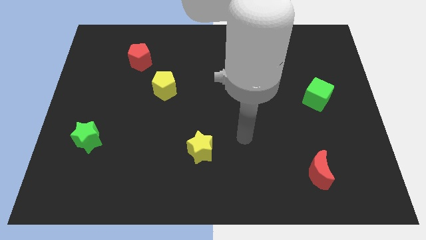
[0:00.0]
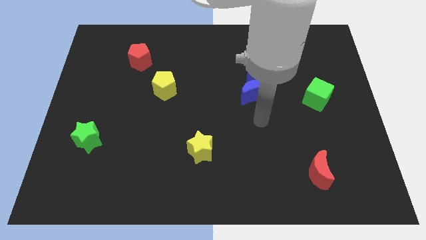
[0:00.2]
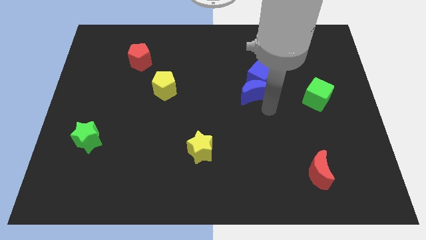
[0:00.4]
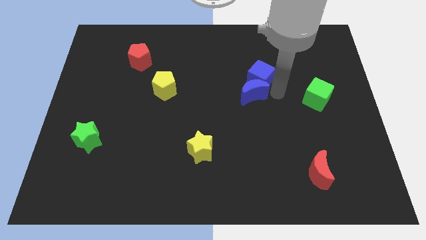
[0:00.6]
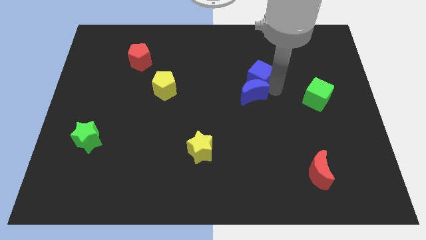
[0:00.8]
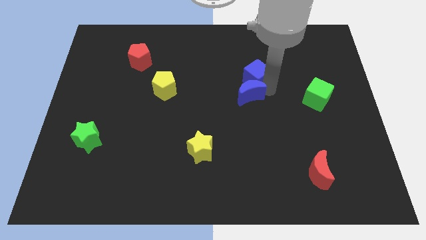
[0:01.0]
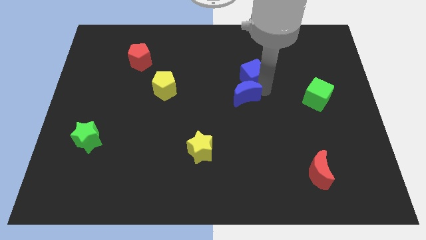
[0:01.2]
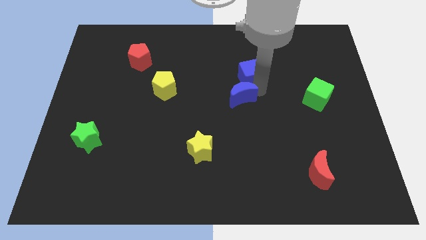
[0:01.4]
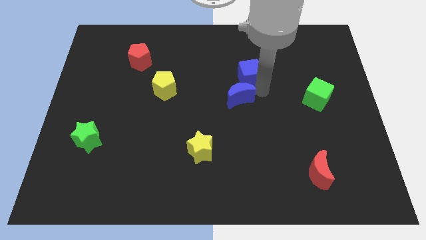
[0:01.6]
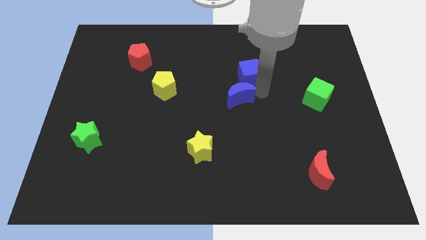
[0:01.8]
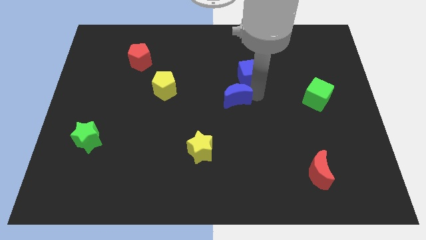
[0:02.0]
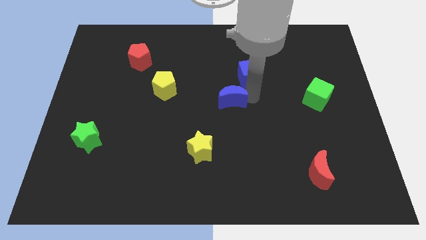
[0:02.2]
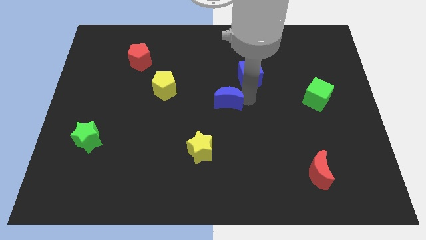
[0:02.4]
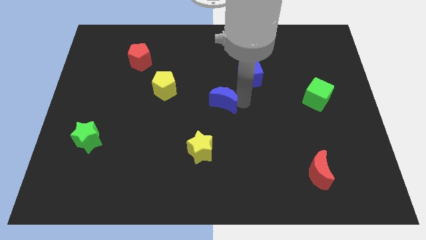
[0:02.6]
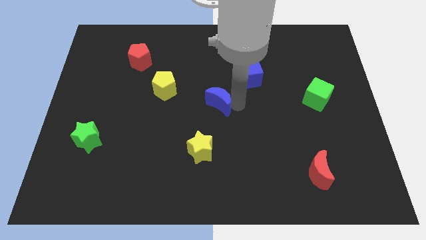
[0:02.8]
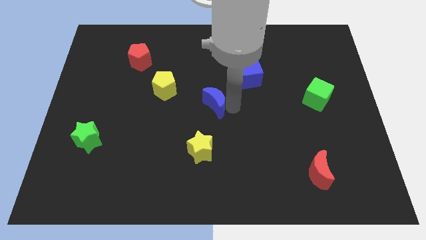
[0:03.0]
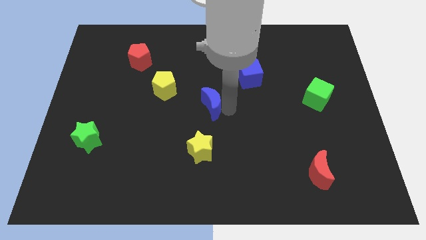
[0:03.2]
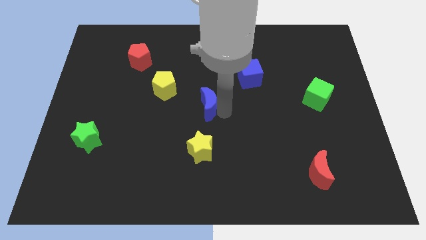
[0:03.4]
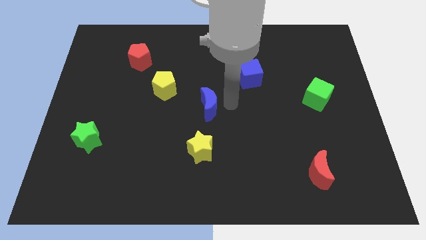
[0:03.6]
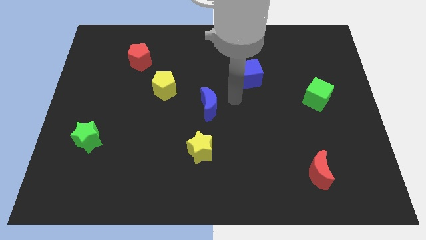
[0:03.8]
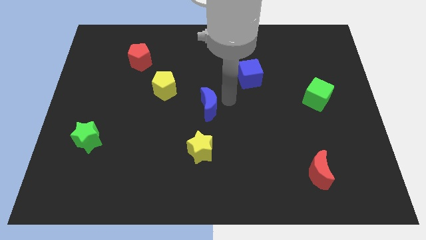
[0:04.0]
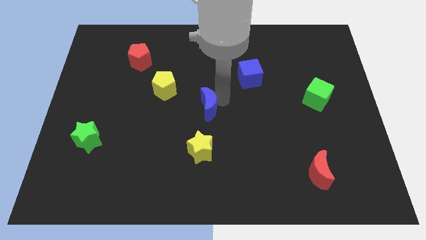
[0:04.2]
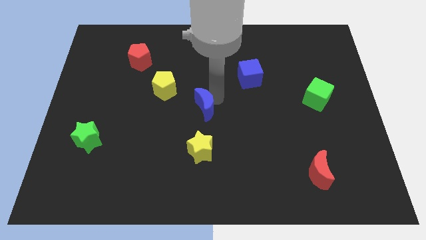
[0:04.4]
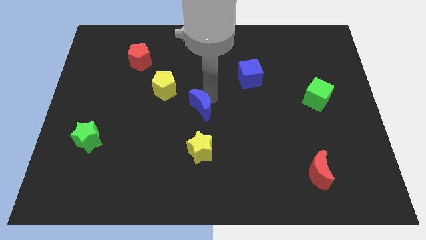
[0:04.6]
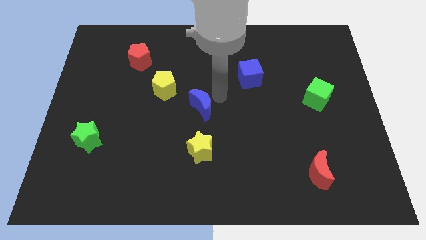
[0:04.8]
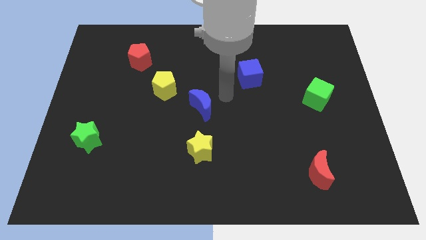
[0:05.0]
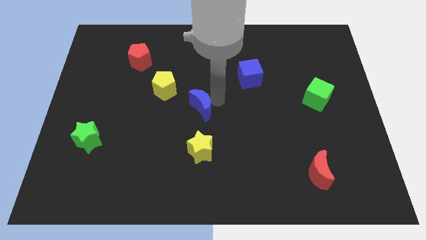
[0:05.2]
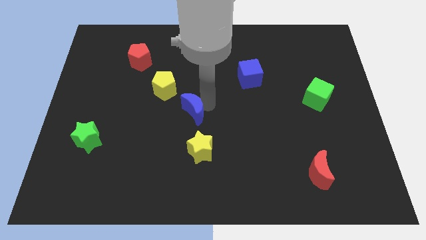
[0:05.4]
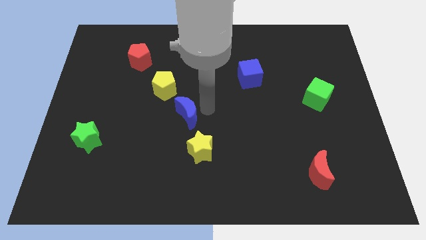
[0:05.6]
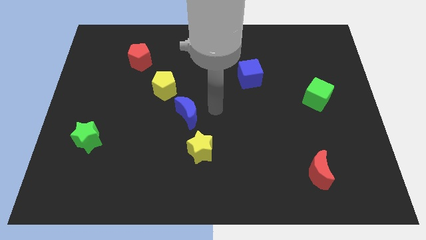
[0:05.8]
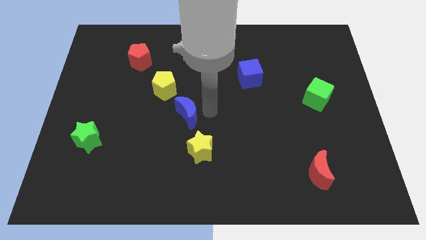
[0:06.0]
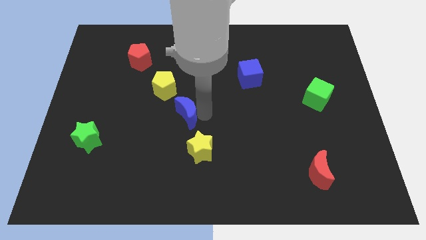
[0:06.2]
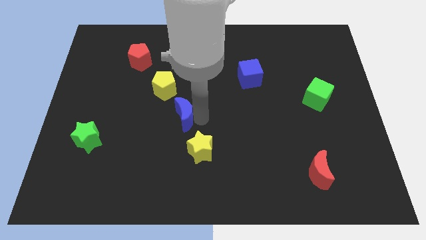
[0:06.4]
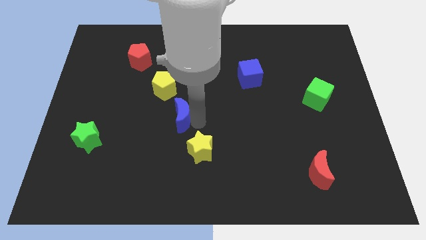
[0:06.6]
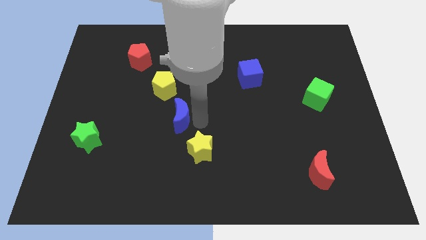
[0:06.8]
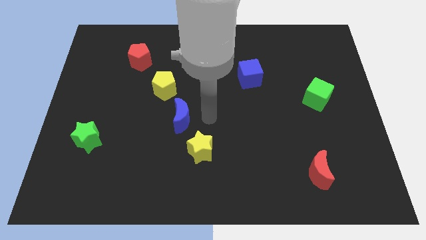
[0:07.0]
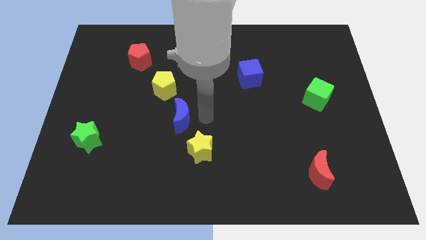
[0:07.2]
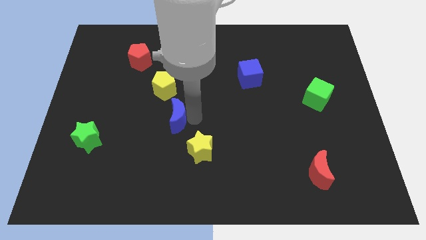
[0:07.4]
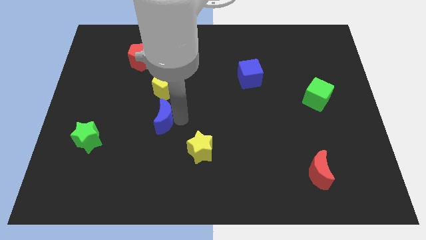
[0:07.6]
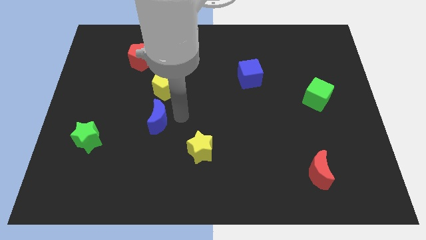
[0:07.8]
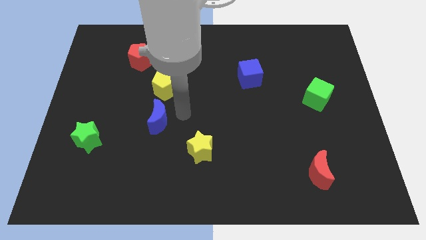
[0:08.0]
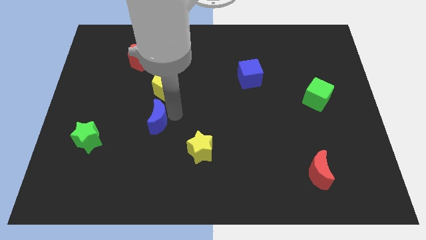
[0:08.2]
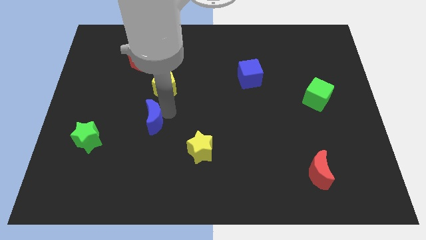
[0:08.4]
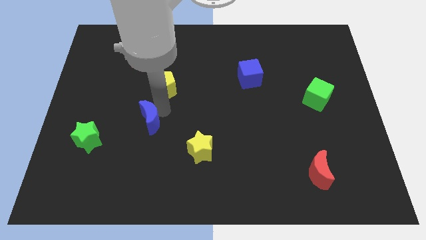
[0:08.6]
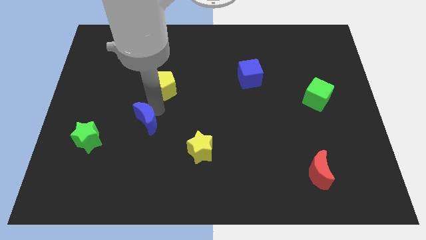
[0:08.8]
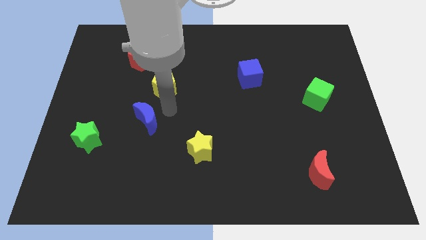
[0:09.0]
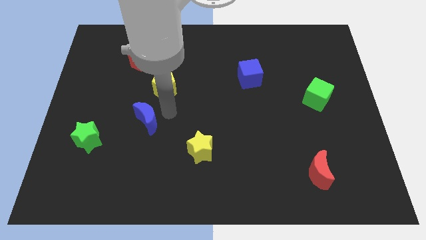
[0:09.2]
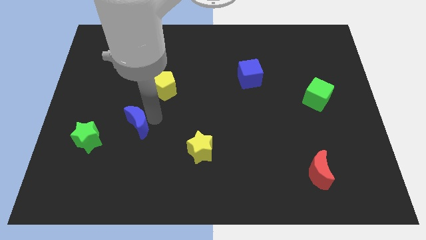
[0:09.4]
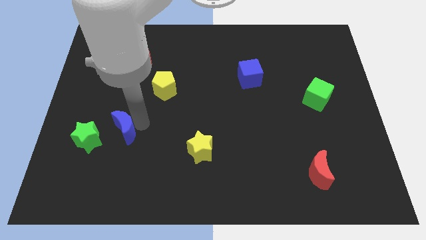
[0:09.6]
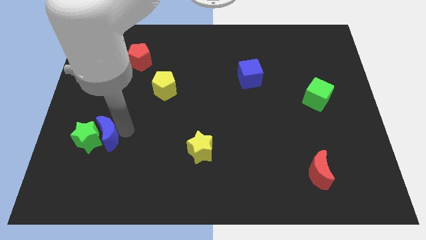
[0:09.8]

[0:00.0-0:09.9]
push the blue moon towards the green star

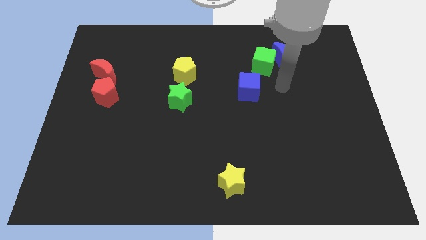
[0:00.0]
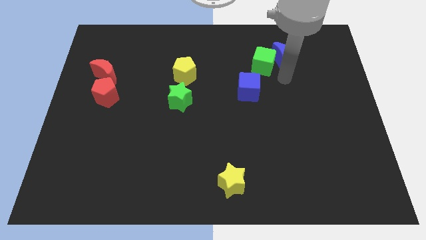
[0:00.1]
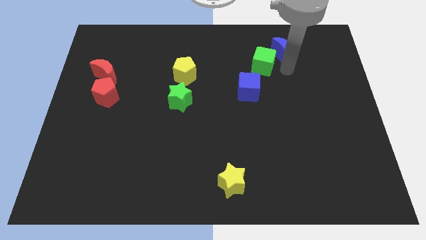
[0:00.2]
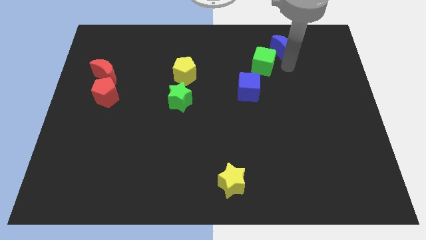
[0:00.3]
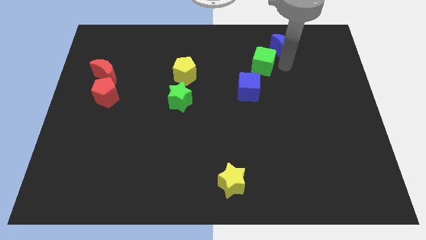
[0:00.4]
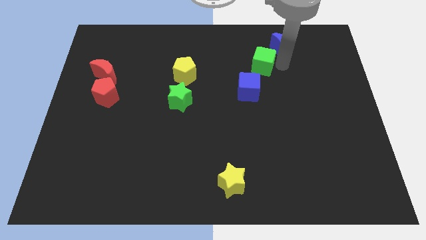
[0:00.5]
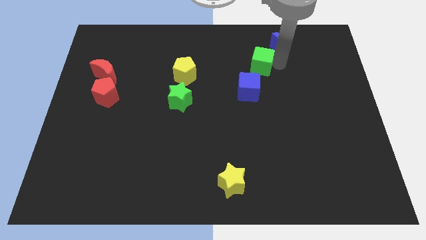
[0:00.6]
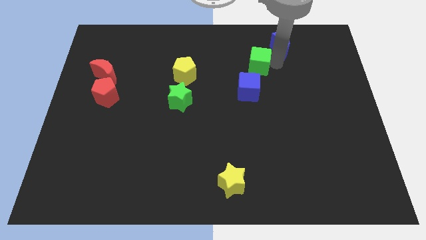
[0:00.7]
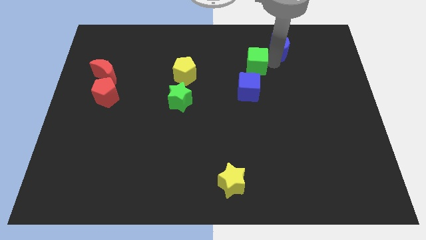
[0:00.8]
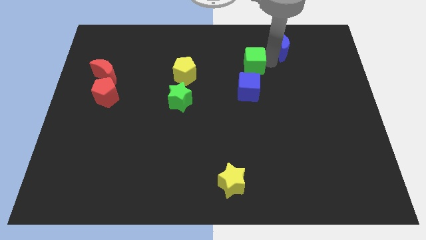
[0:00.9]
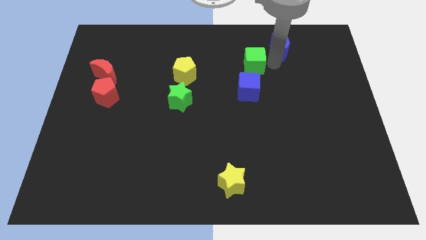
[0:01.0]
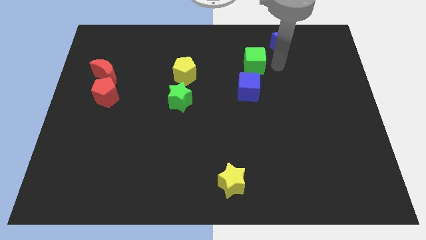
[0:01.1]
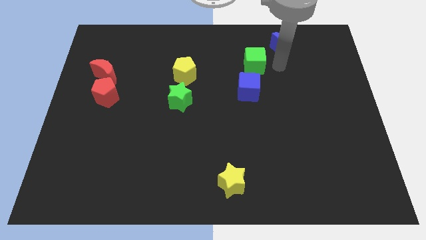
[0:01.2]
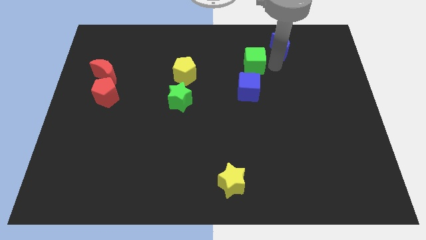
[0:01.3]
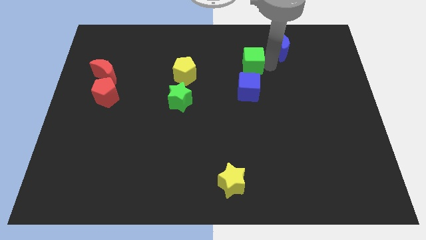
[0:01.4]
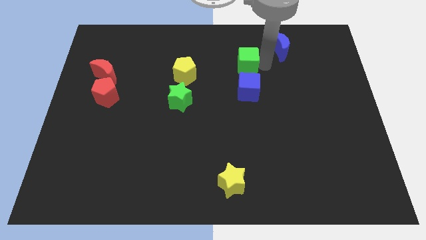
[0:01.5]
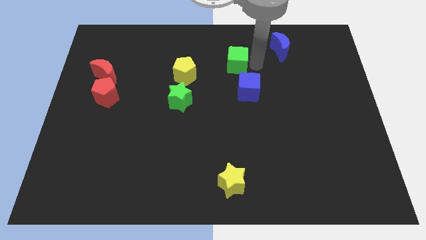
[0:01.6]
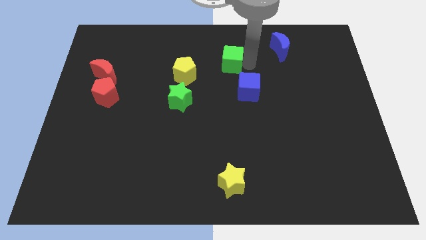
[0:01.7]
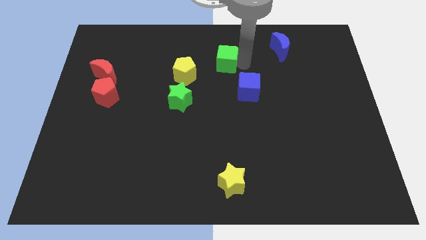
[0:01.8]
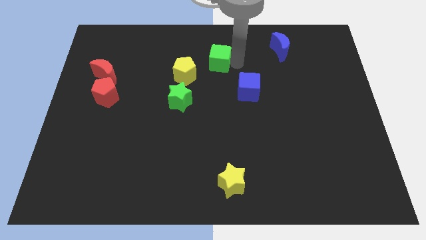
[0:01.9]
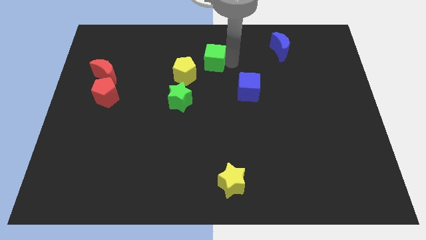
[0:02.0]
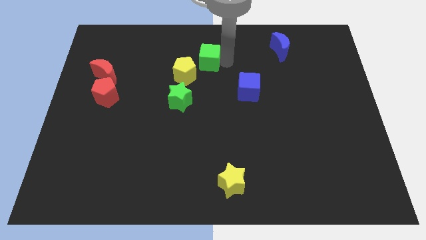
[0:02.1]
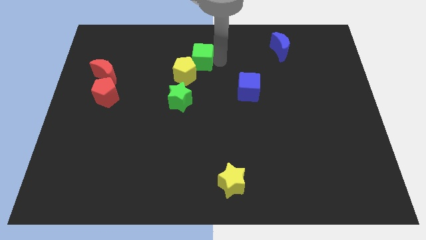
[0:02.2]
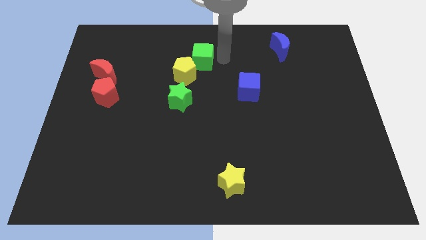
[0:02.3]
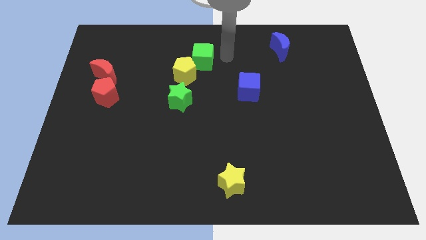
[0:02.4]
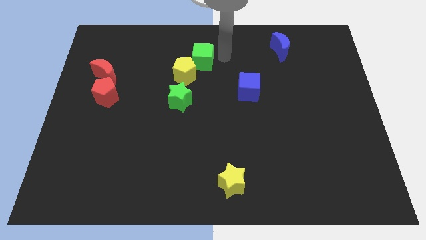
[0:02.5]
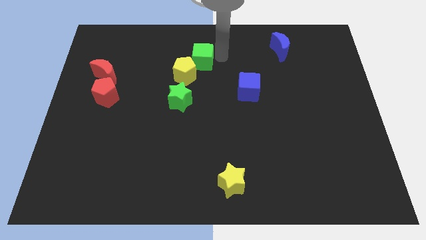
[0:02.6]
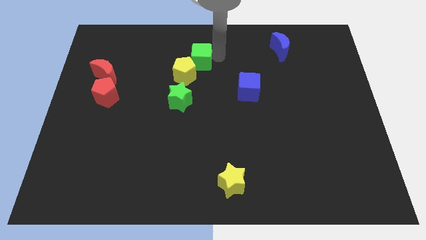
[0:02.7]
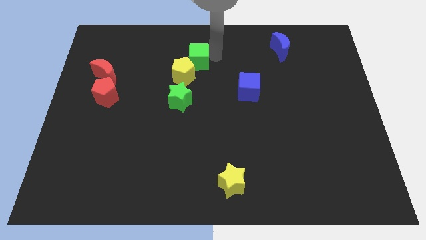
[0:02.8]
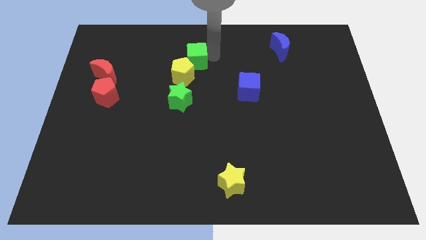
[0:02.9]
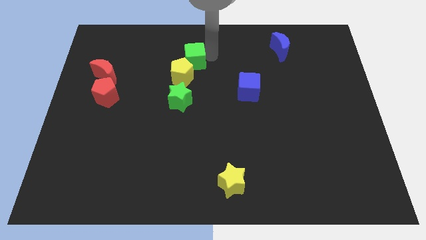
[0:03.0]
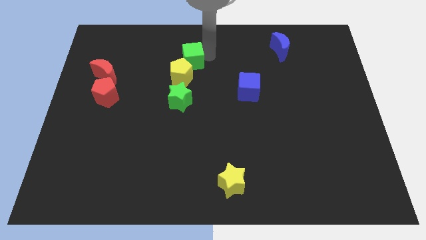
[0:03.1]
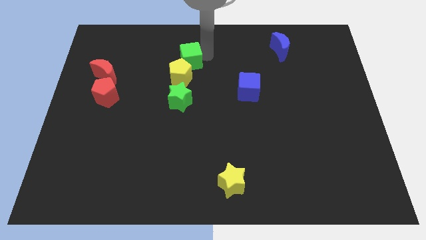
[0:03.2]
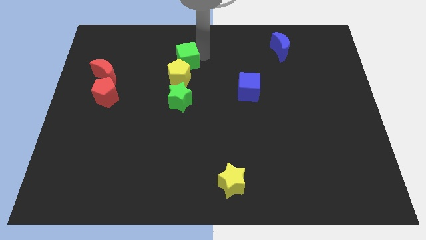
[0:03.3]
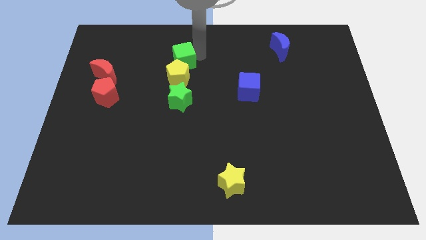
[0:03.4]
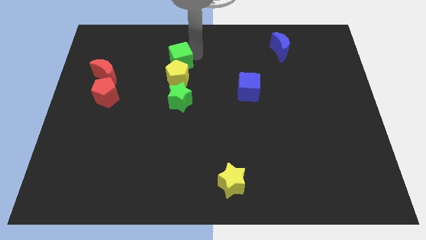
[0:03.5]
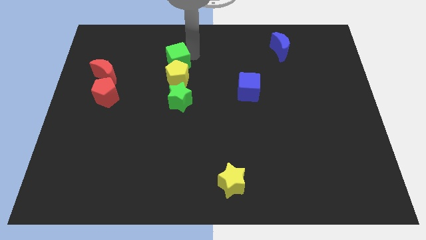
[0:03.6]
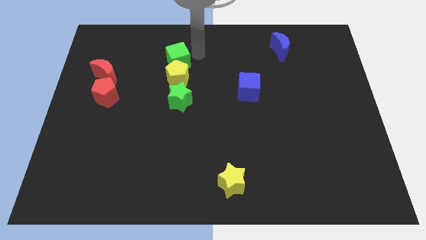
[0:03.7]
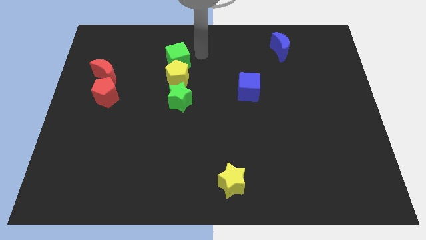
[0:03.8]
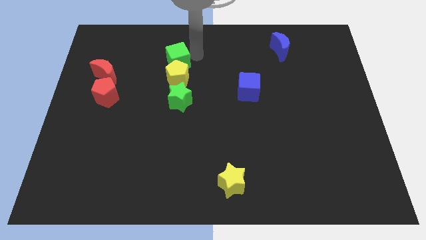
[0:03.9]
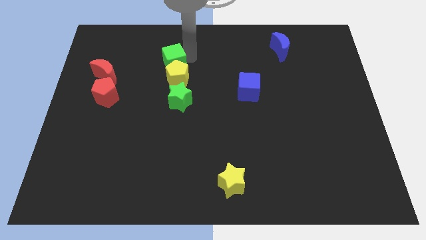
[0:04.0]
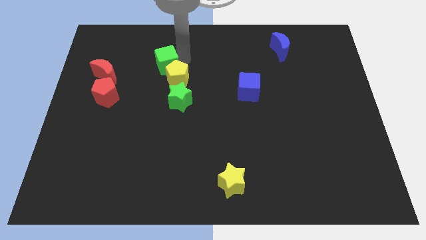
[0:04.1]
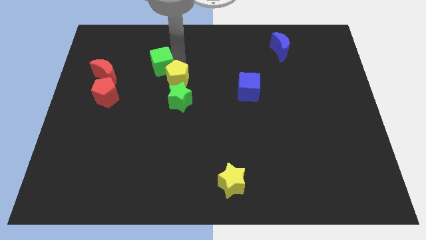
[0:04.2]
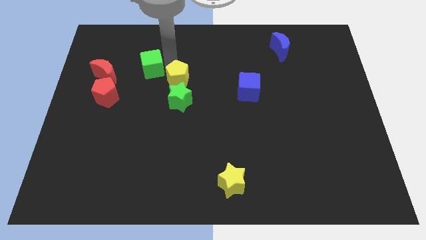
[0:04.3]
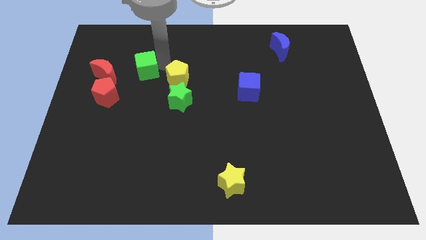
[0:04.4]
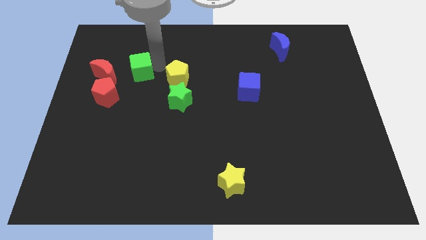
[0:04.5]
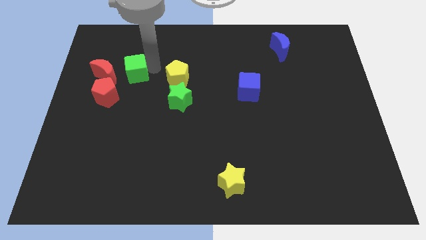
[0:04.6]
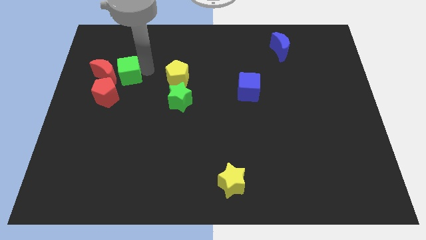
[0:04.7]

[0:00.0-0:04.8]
put the green cube towards the red moon
